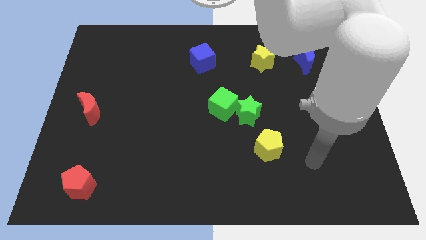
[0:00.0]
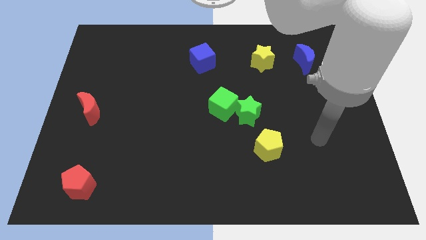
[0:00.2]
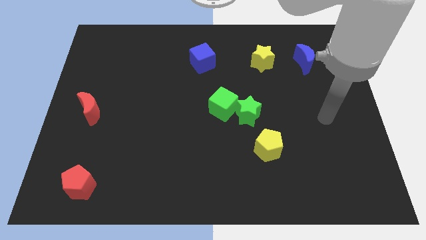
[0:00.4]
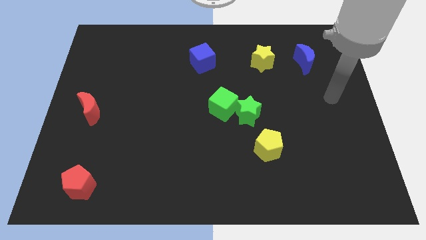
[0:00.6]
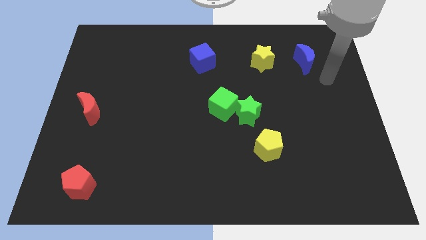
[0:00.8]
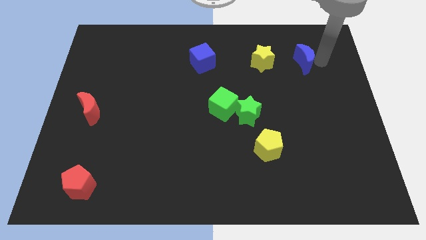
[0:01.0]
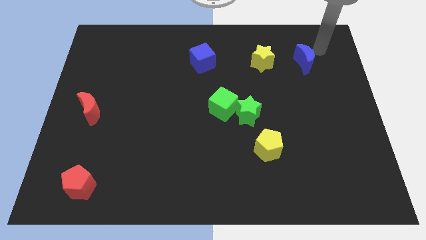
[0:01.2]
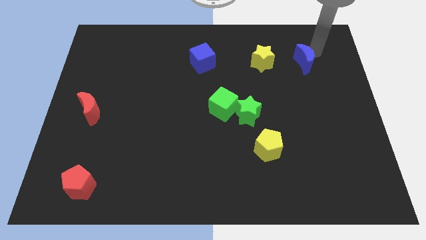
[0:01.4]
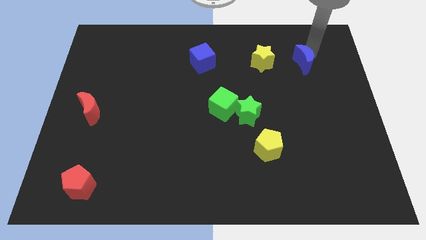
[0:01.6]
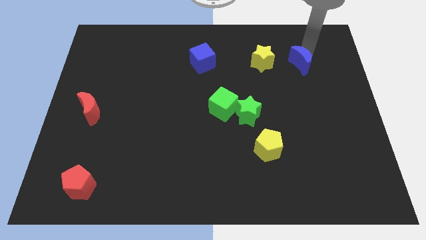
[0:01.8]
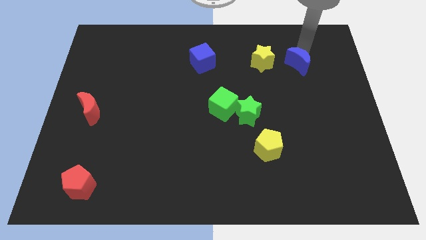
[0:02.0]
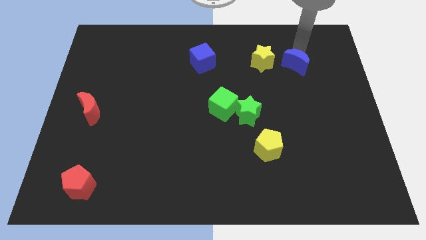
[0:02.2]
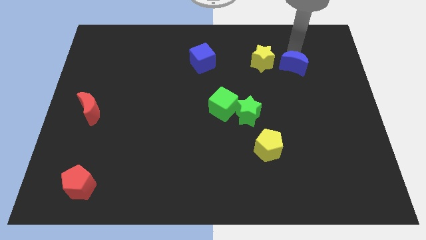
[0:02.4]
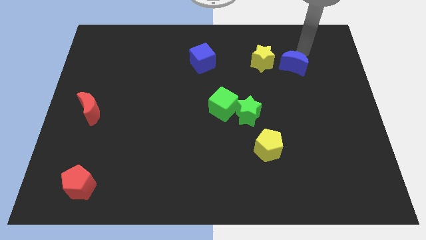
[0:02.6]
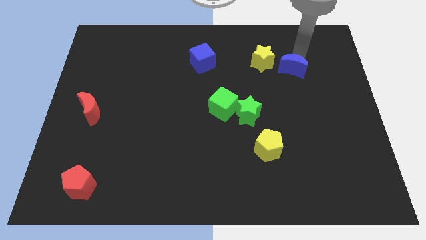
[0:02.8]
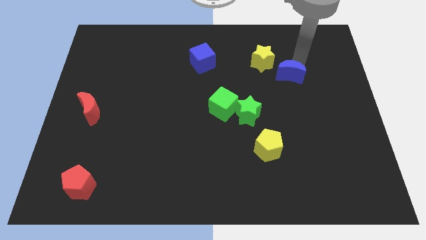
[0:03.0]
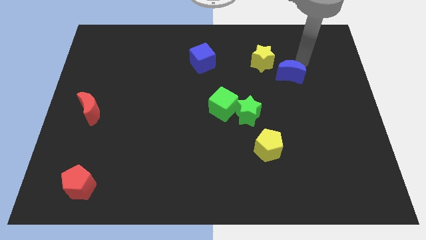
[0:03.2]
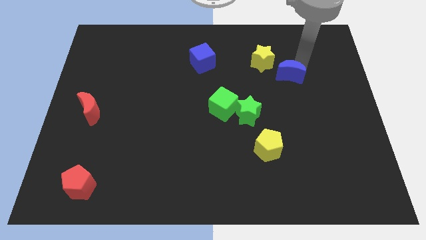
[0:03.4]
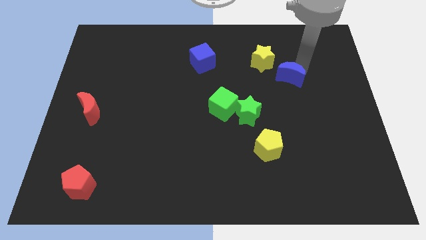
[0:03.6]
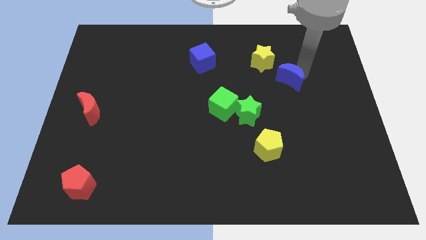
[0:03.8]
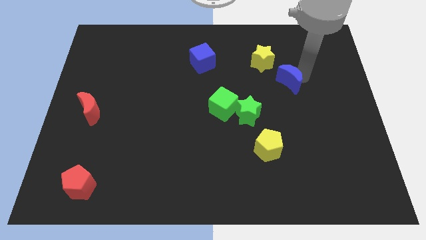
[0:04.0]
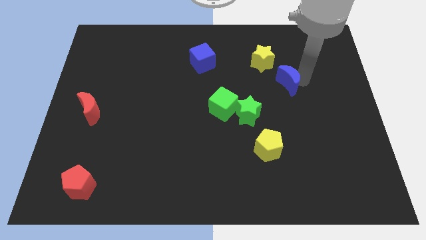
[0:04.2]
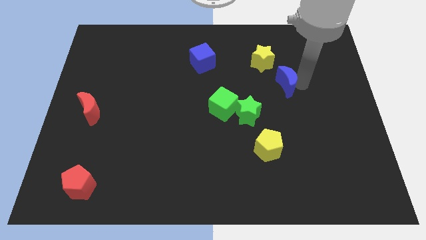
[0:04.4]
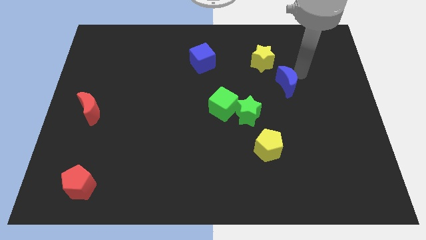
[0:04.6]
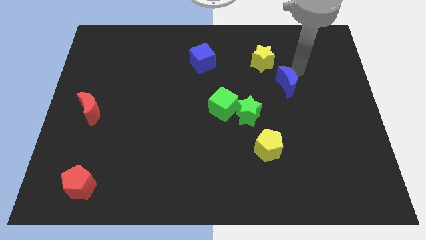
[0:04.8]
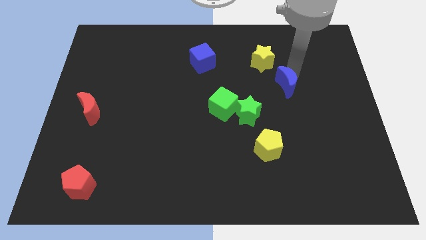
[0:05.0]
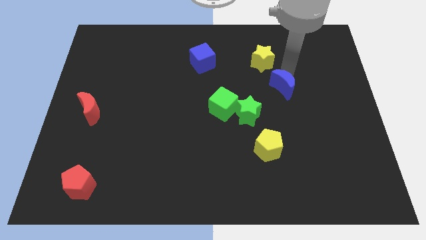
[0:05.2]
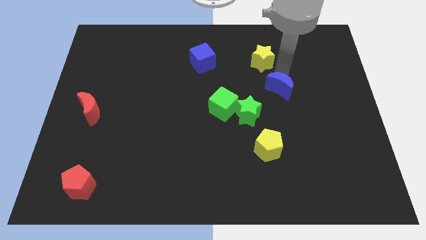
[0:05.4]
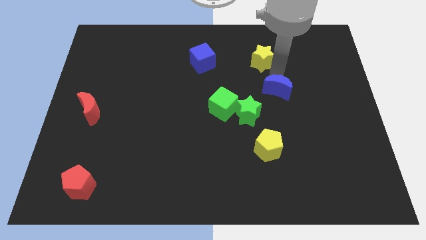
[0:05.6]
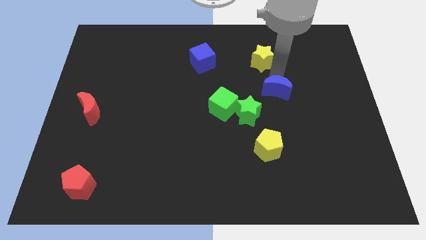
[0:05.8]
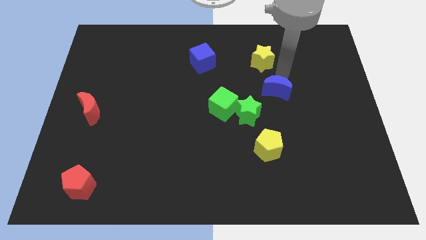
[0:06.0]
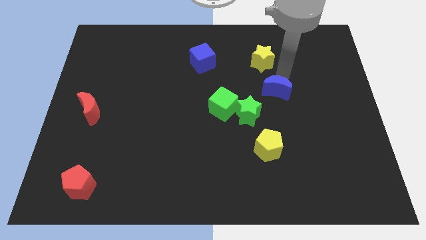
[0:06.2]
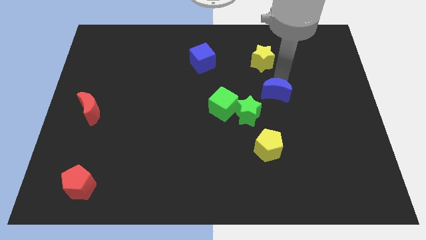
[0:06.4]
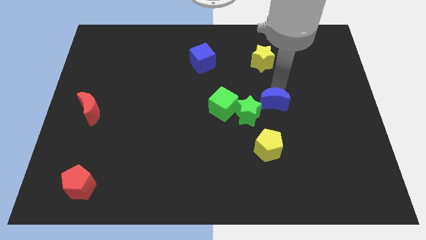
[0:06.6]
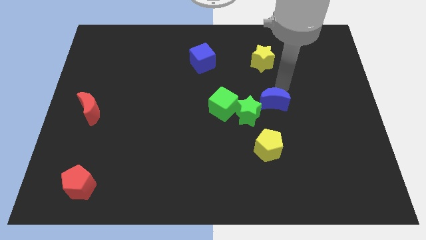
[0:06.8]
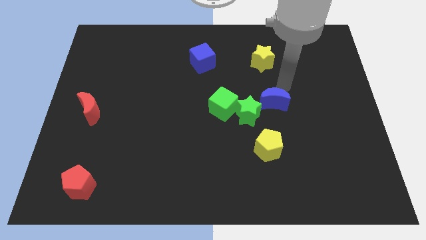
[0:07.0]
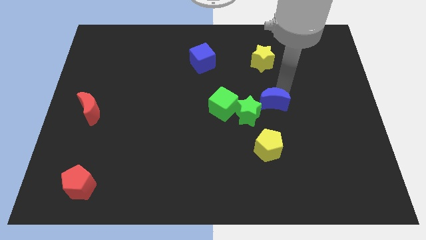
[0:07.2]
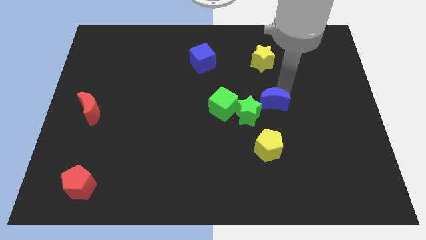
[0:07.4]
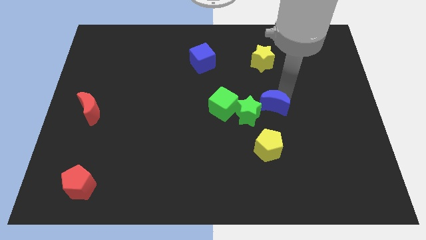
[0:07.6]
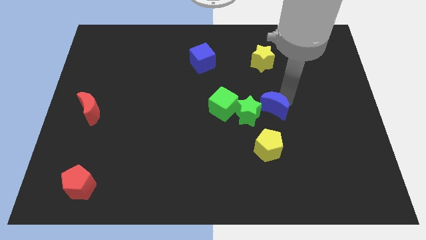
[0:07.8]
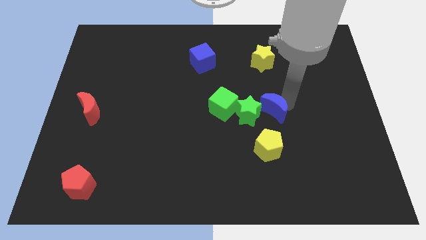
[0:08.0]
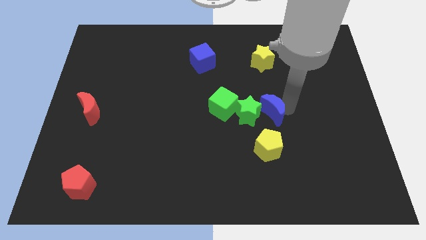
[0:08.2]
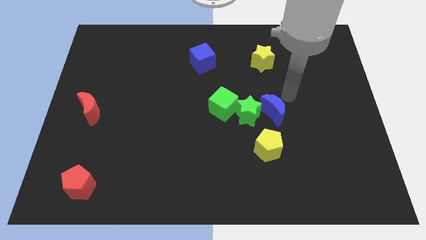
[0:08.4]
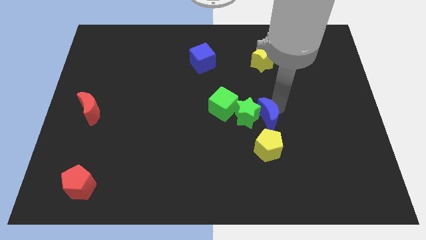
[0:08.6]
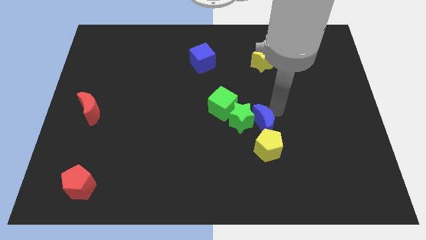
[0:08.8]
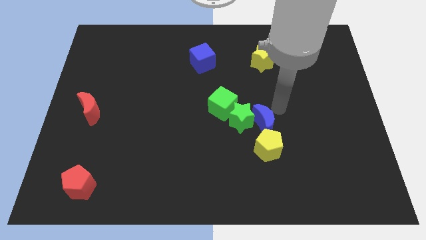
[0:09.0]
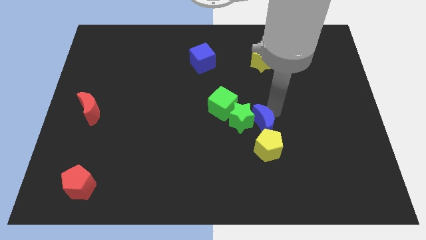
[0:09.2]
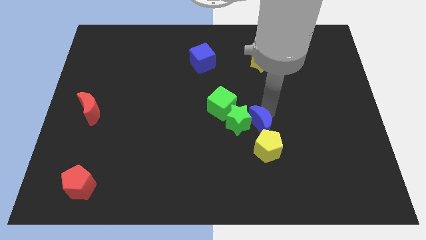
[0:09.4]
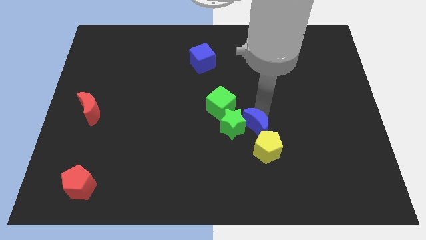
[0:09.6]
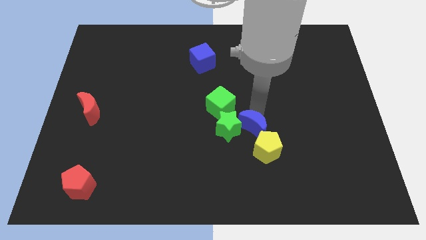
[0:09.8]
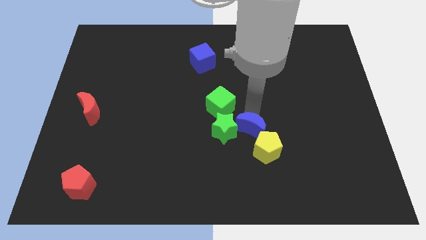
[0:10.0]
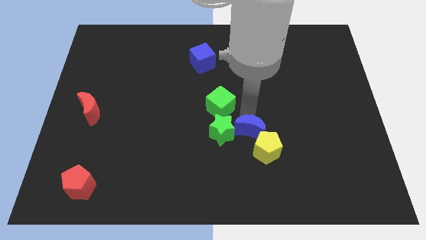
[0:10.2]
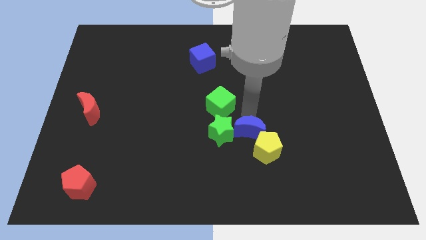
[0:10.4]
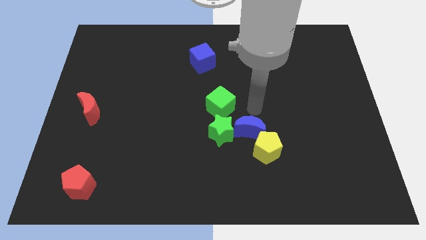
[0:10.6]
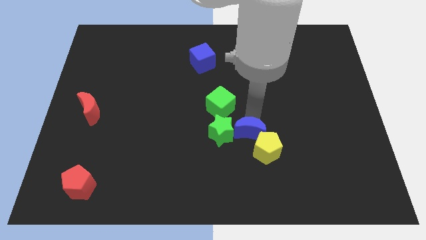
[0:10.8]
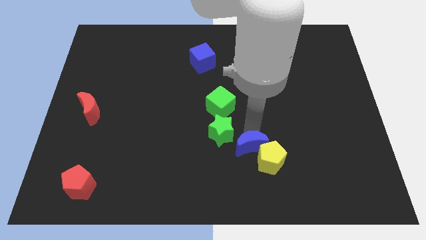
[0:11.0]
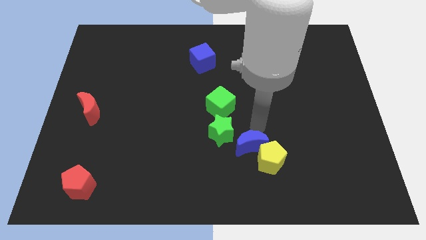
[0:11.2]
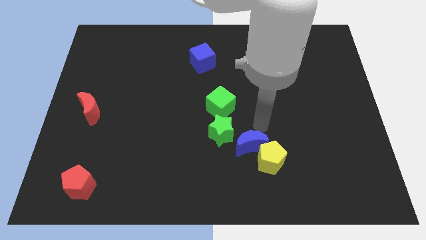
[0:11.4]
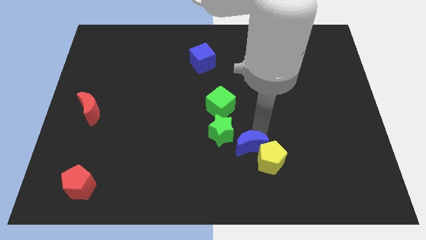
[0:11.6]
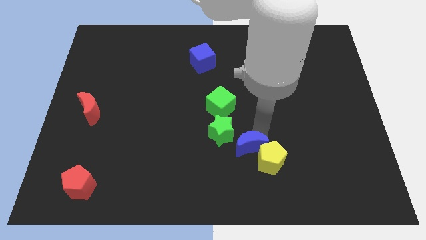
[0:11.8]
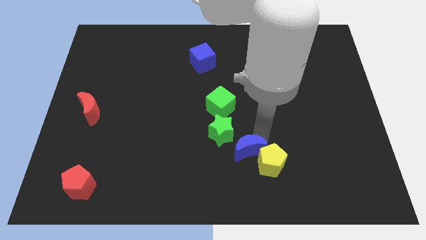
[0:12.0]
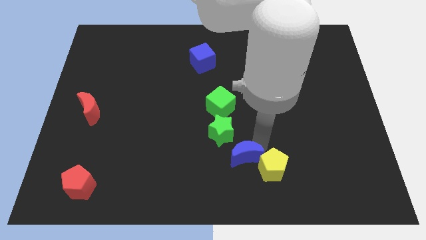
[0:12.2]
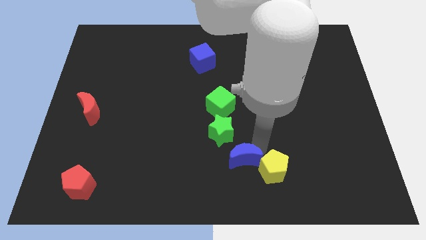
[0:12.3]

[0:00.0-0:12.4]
push the blue moon to the bottom
